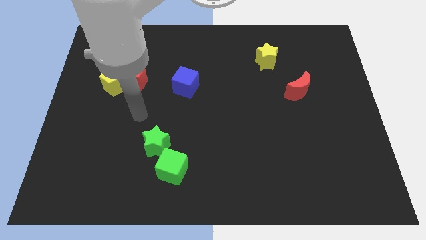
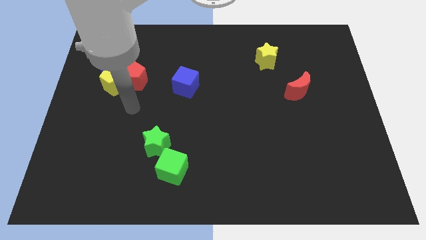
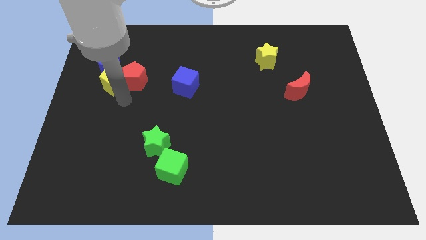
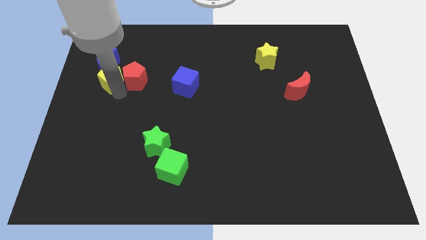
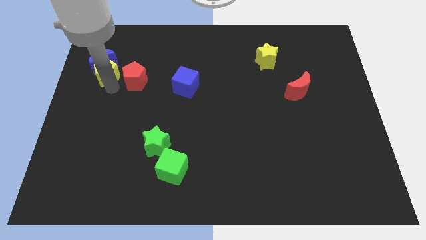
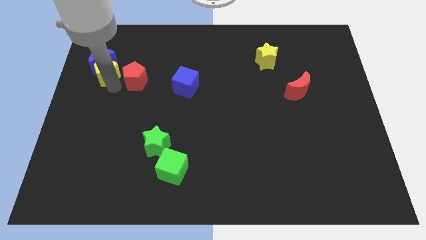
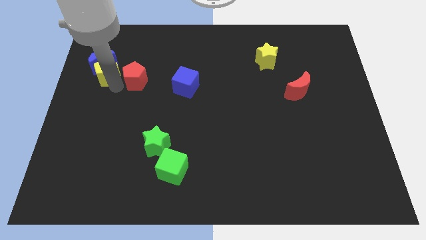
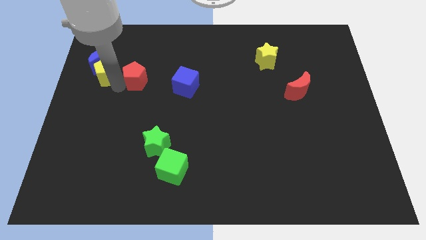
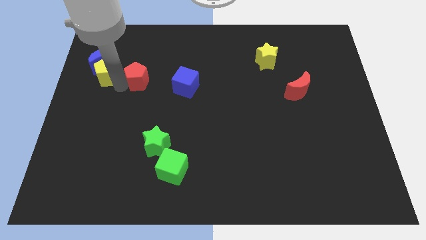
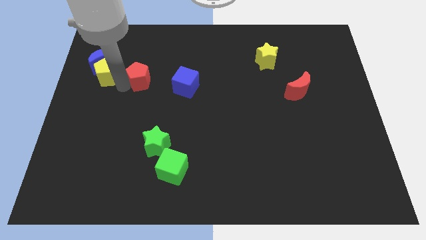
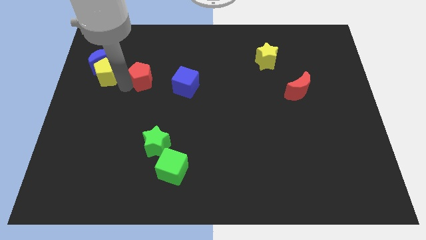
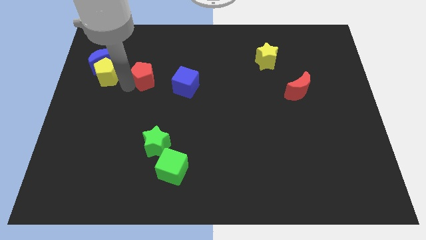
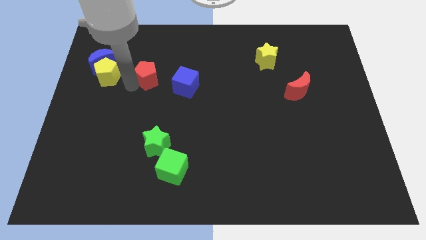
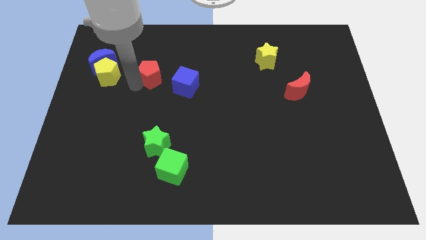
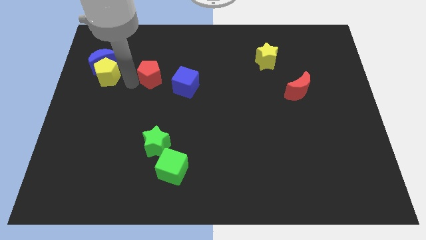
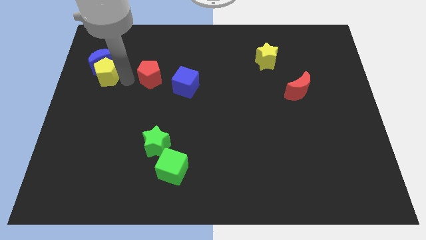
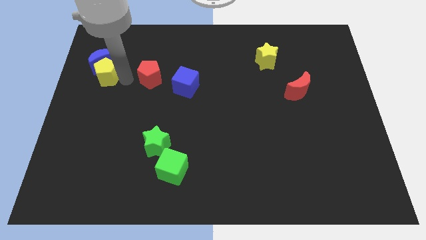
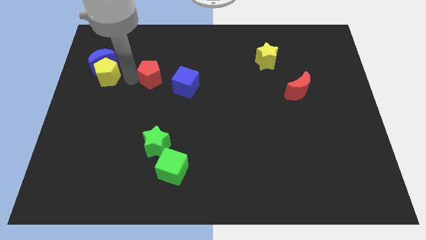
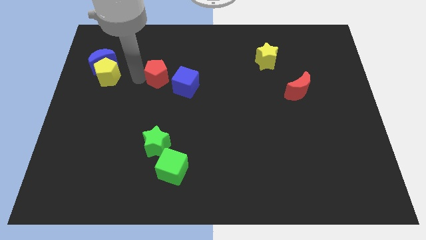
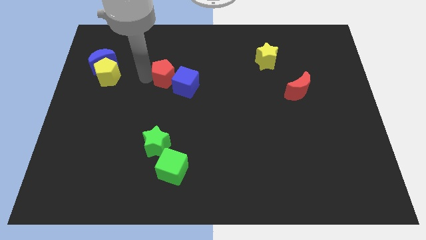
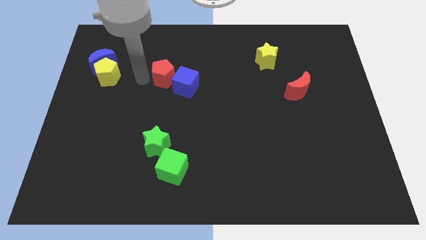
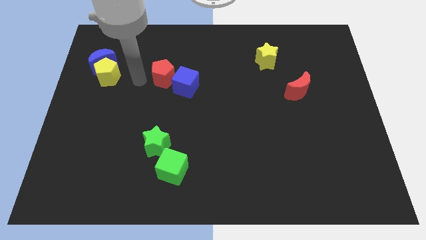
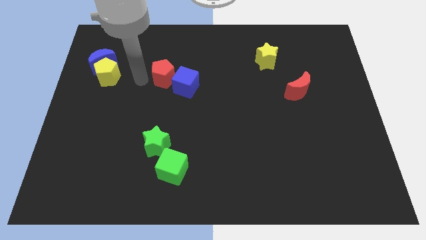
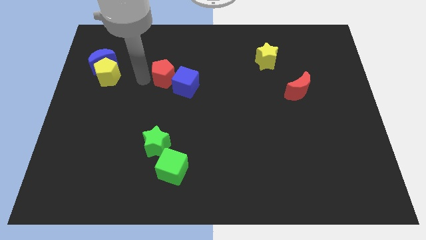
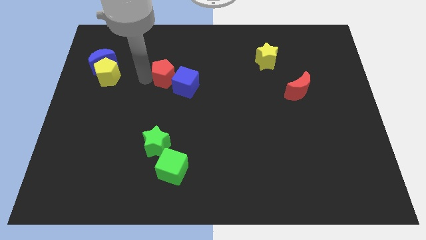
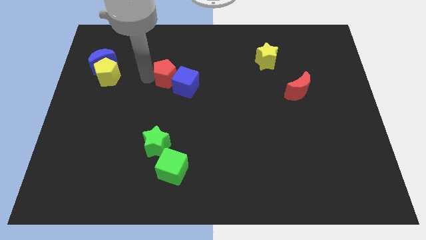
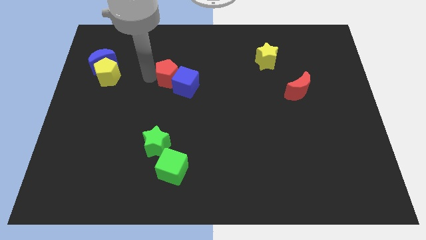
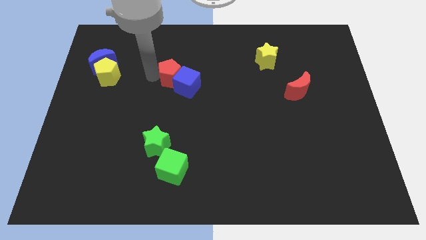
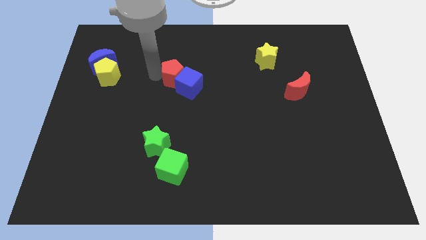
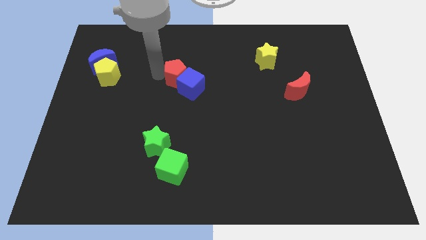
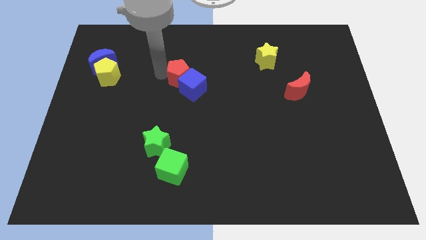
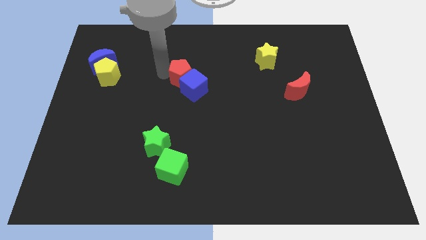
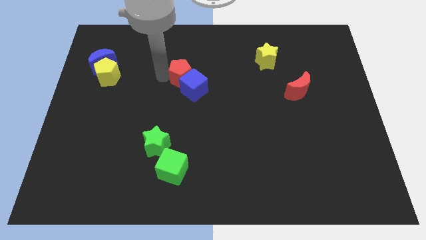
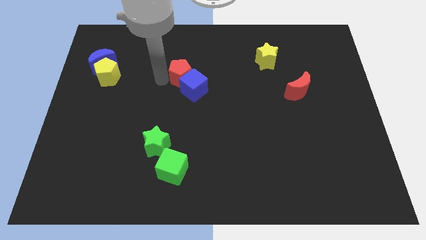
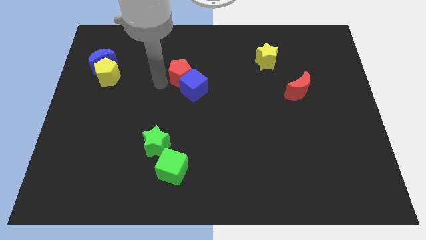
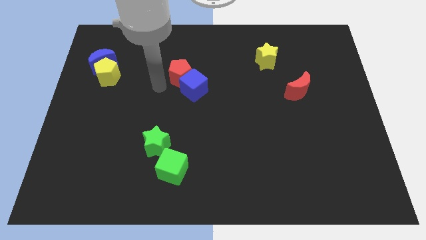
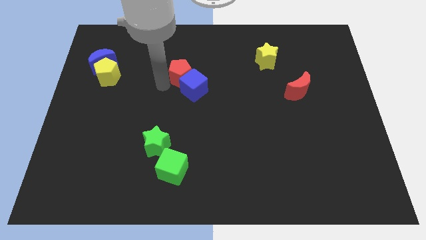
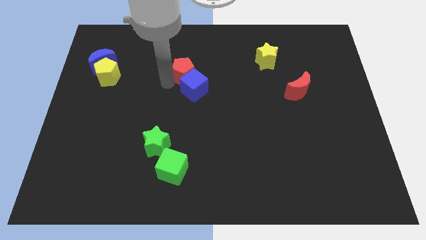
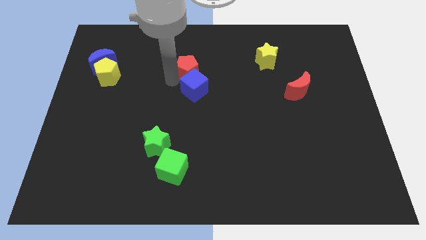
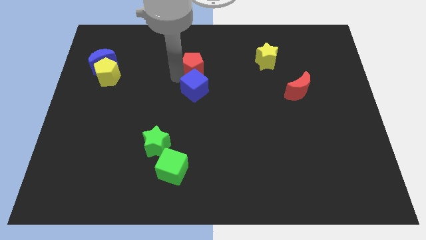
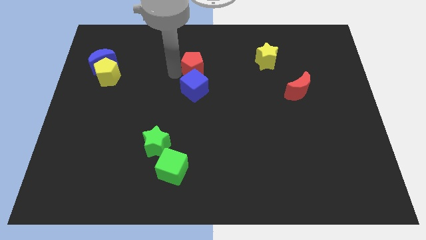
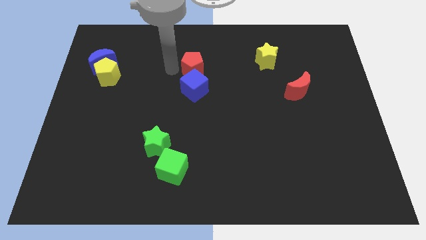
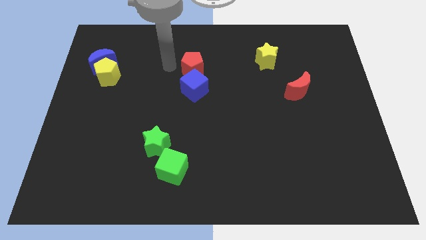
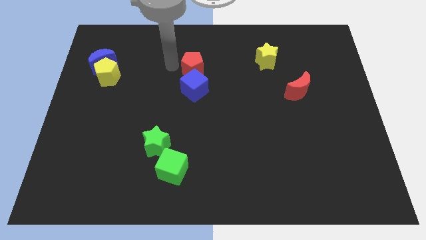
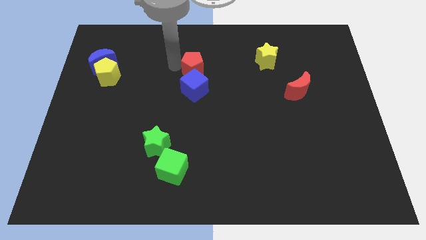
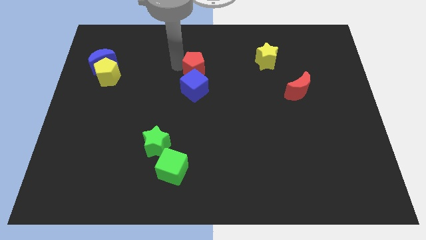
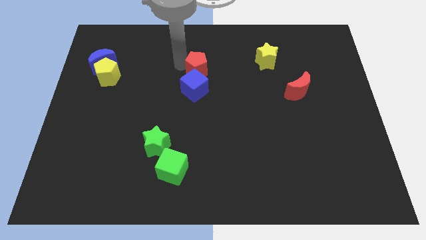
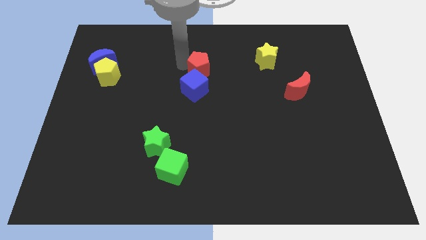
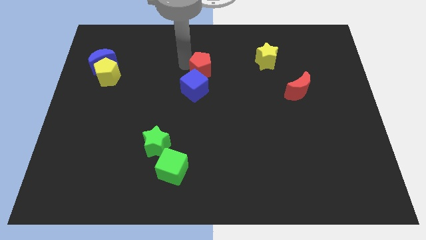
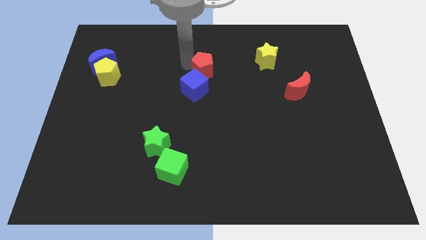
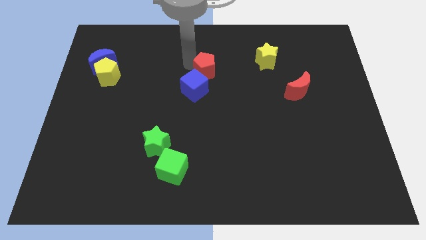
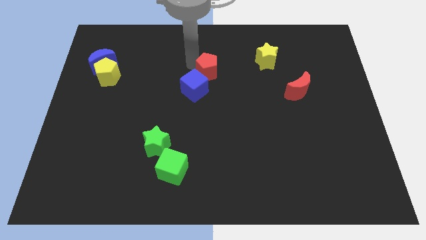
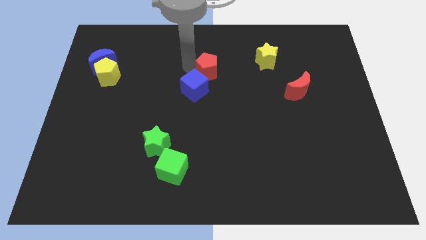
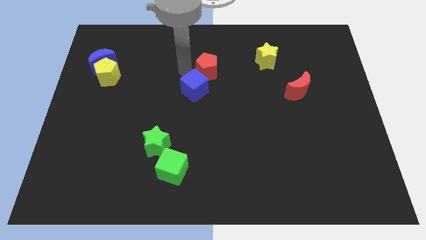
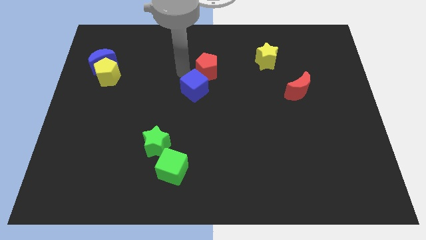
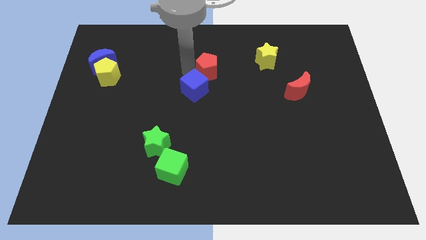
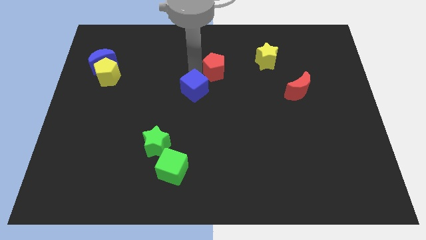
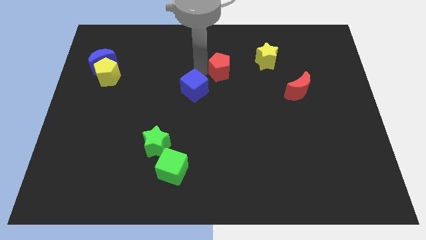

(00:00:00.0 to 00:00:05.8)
push the red pentagon right

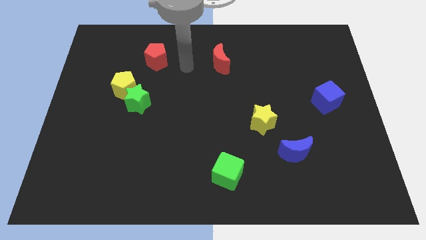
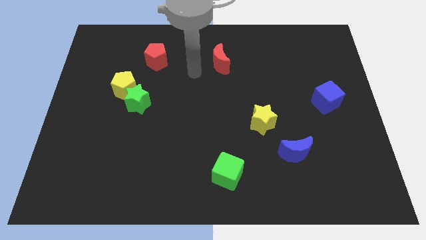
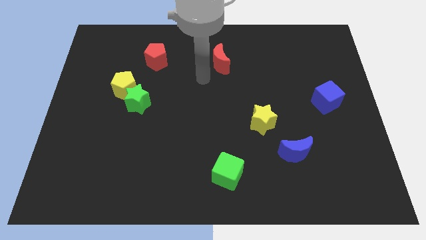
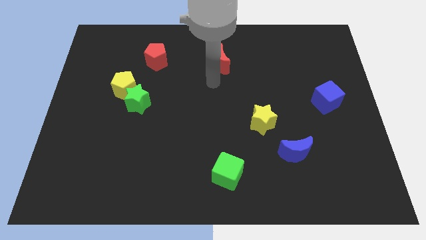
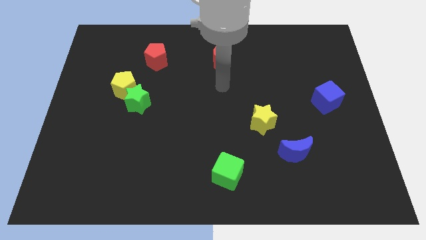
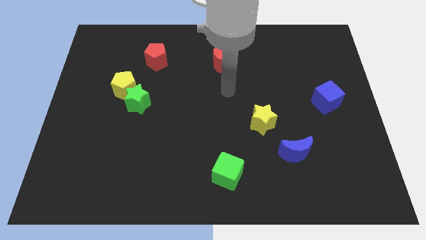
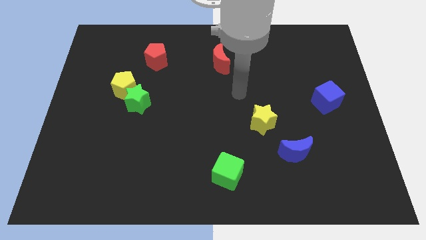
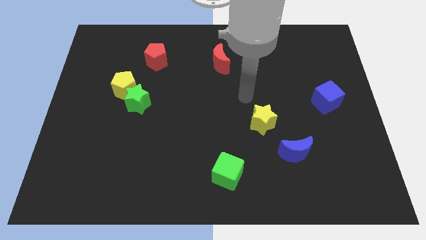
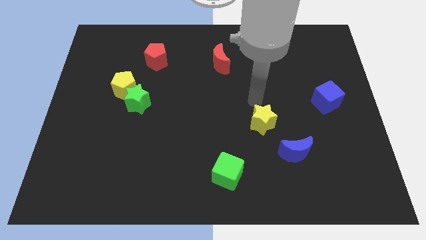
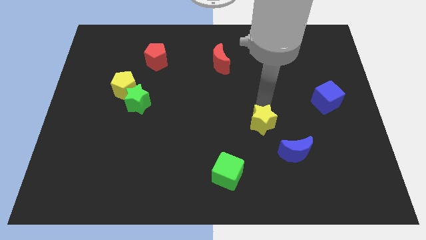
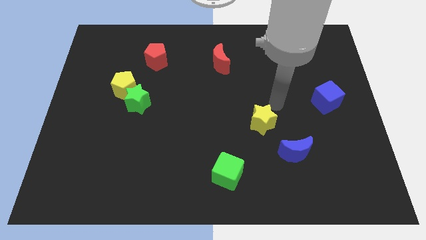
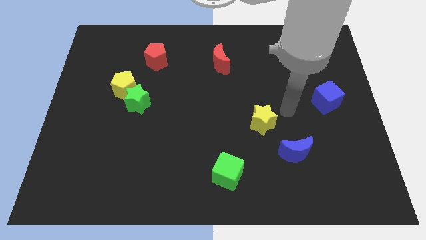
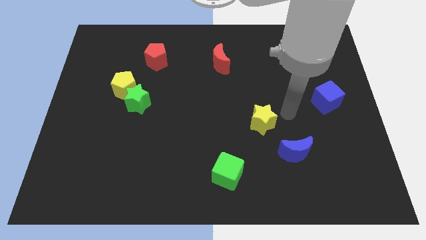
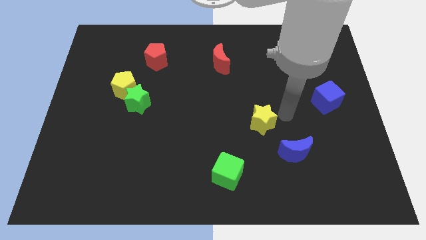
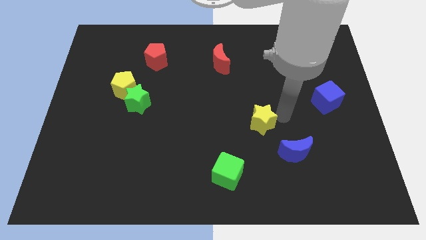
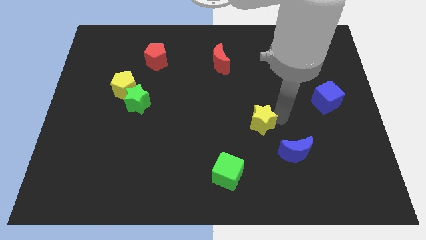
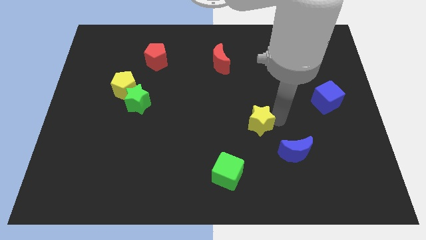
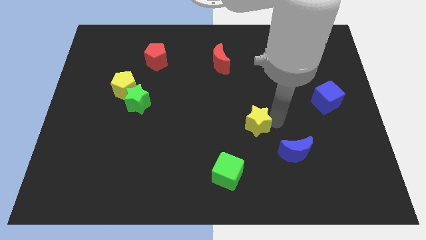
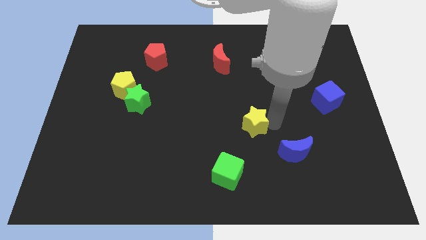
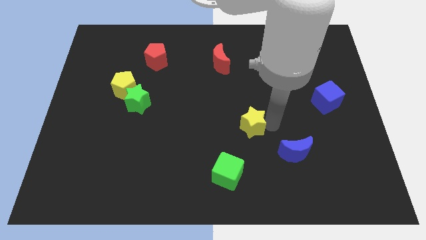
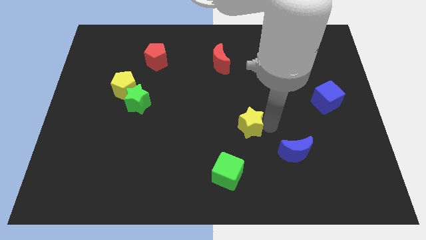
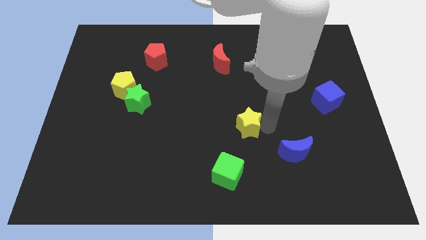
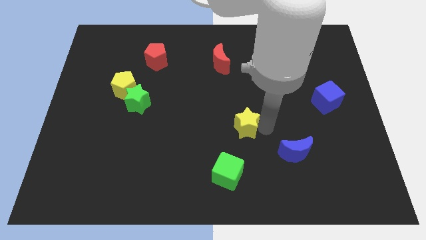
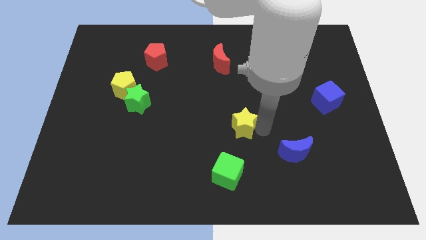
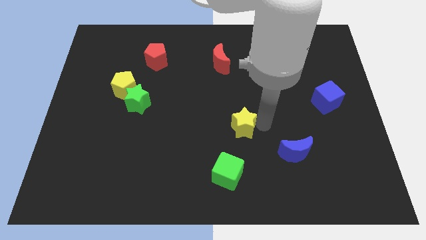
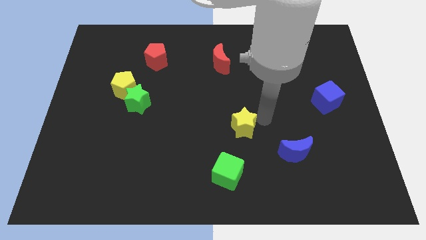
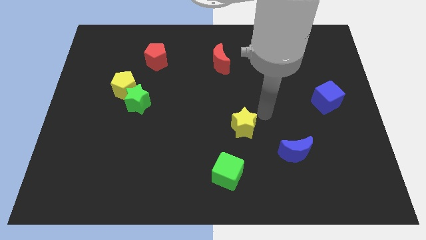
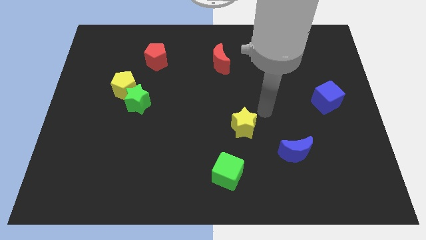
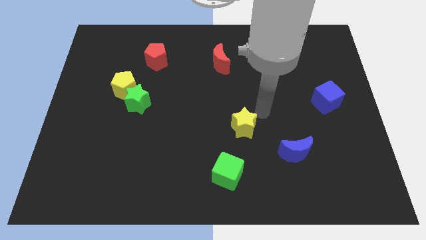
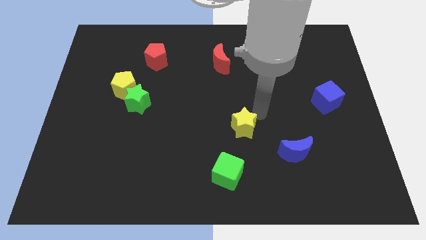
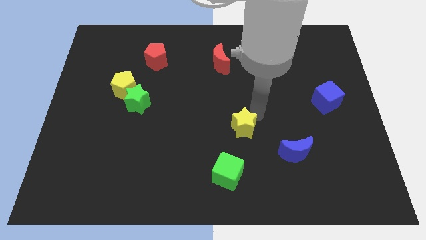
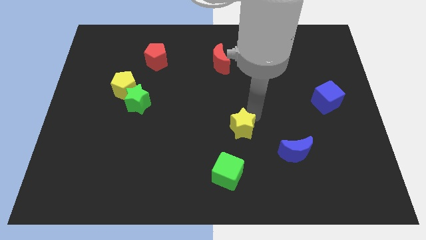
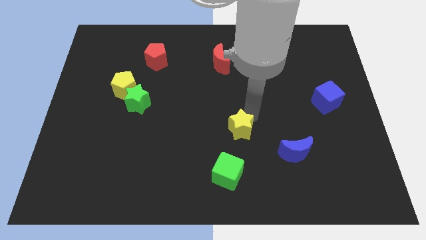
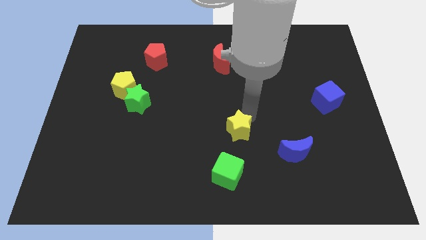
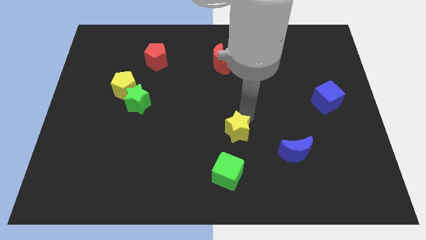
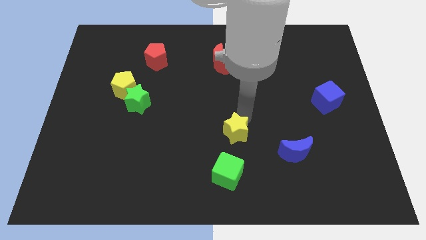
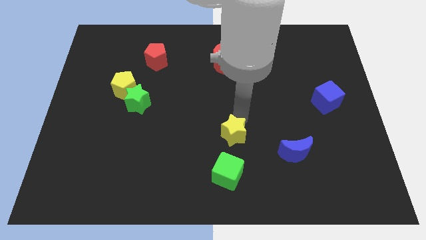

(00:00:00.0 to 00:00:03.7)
move the yellow star down and to the left a little bit
